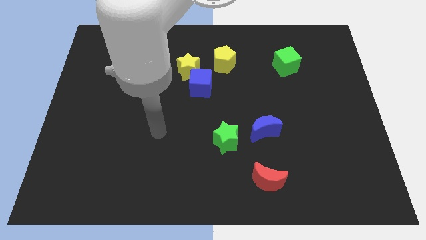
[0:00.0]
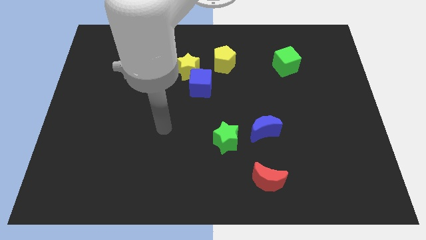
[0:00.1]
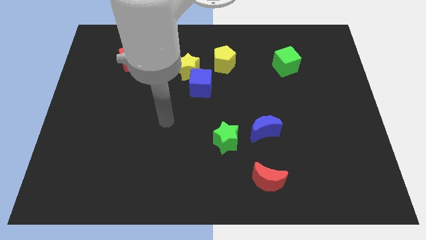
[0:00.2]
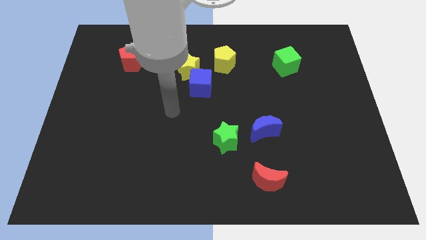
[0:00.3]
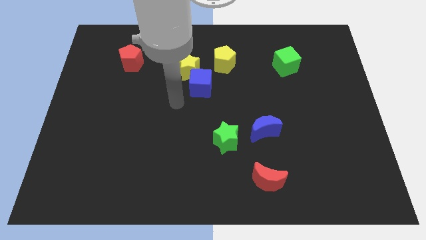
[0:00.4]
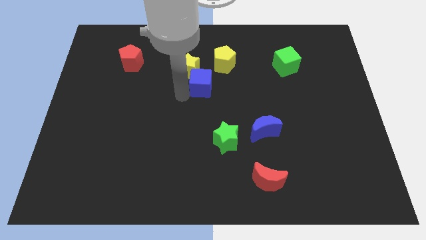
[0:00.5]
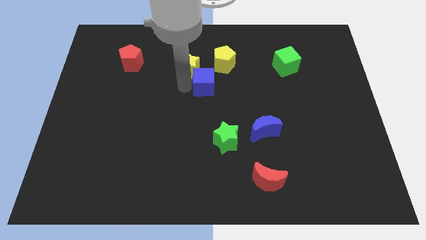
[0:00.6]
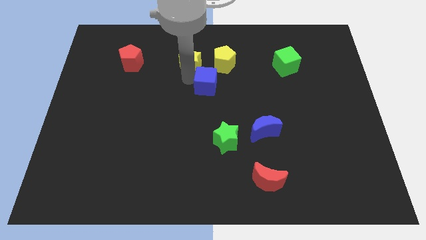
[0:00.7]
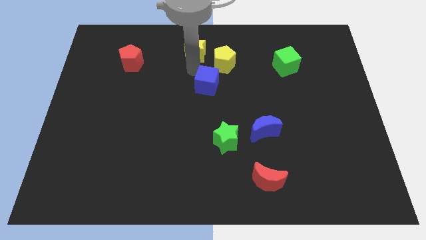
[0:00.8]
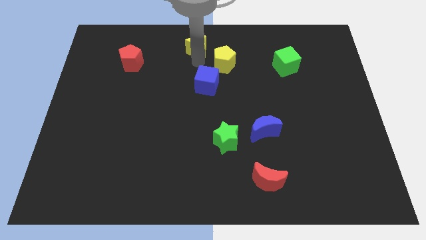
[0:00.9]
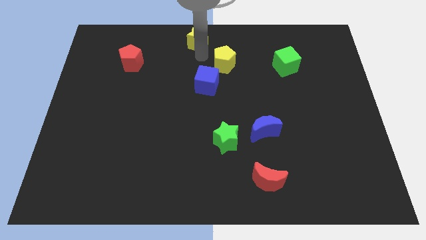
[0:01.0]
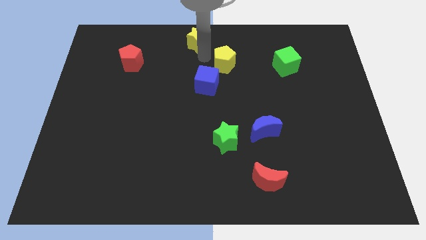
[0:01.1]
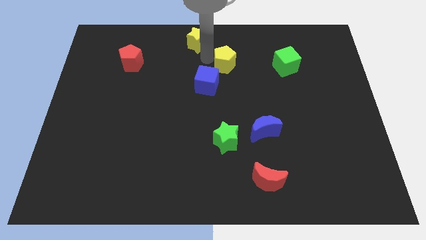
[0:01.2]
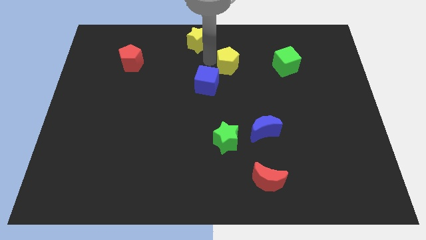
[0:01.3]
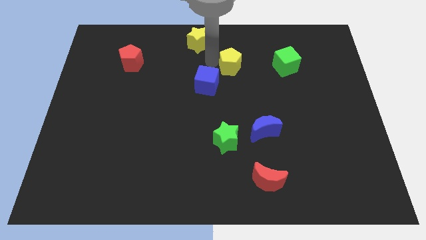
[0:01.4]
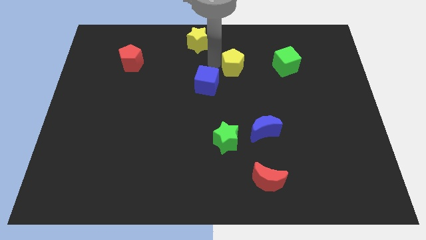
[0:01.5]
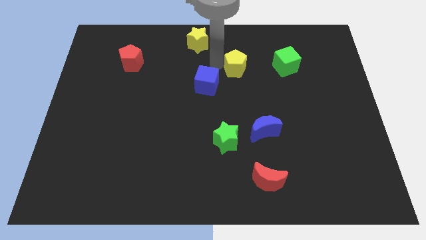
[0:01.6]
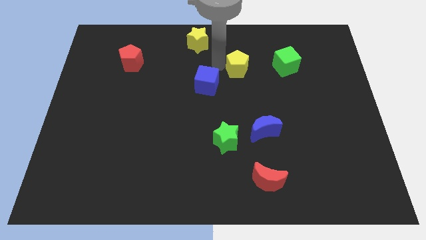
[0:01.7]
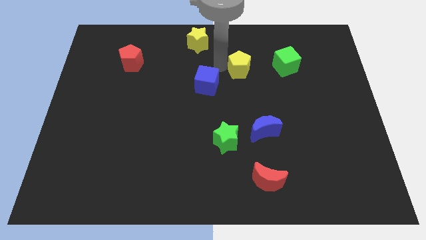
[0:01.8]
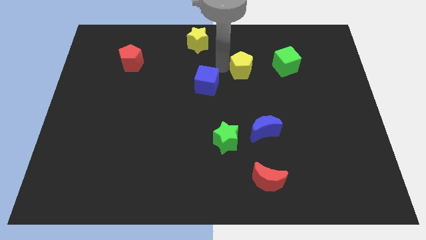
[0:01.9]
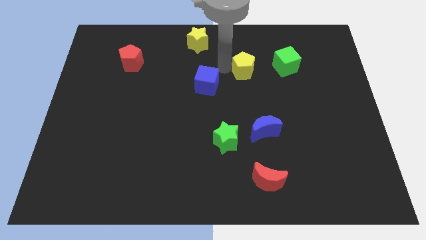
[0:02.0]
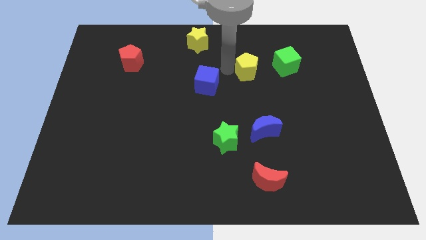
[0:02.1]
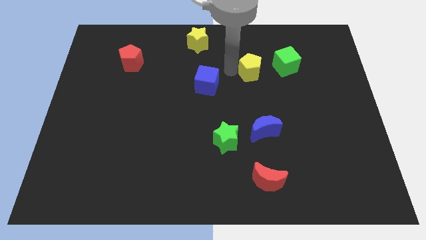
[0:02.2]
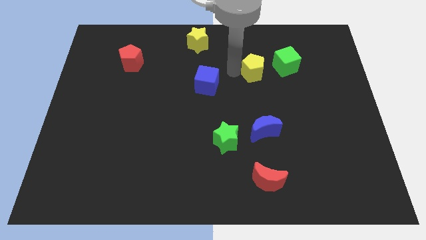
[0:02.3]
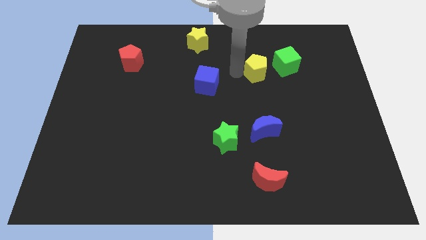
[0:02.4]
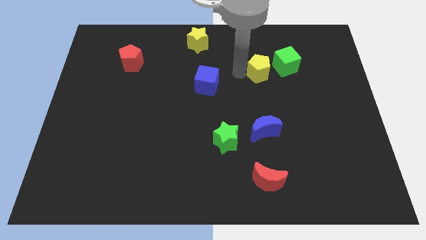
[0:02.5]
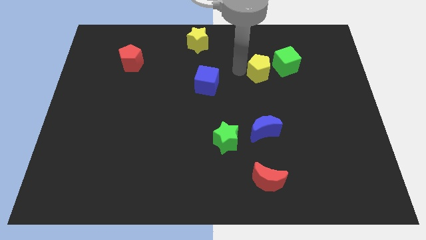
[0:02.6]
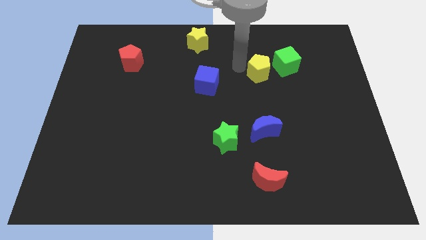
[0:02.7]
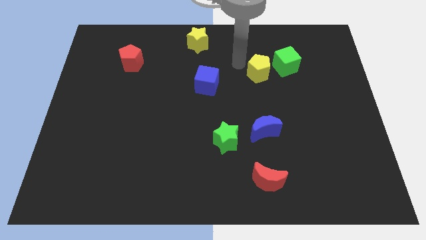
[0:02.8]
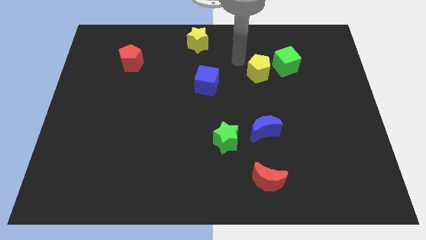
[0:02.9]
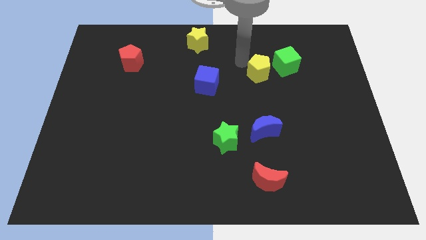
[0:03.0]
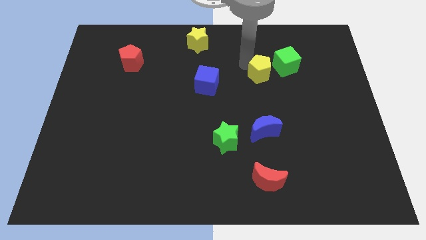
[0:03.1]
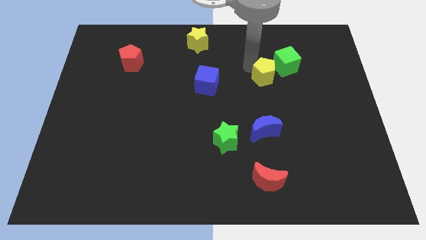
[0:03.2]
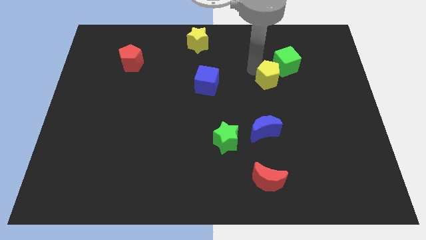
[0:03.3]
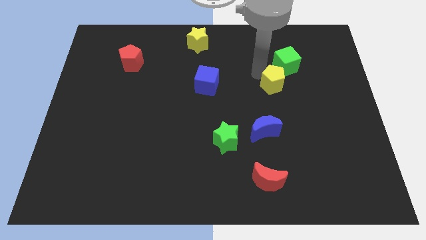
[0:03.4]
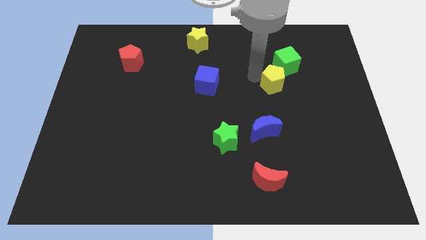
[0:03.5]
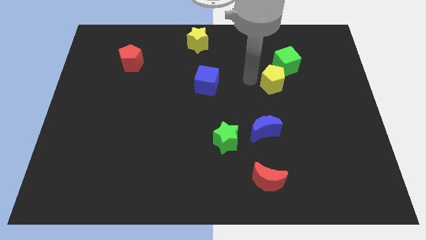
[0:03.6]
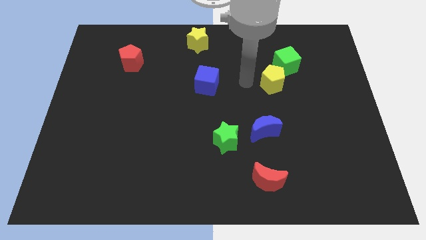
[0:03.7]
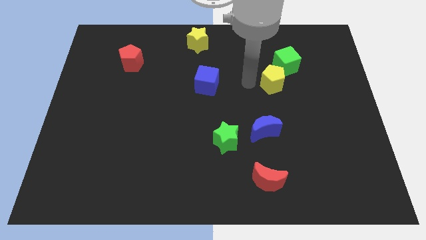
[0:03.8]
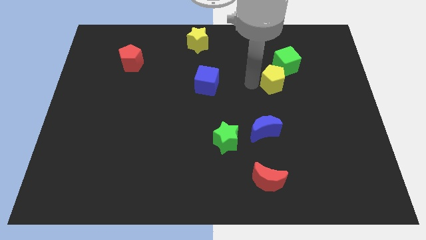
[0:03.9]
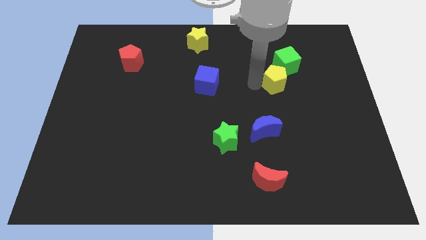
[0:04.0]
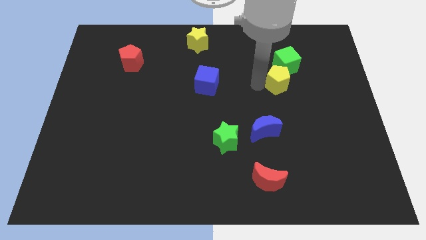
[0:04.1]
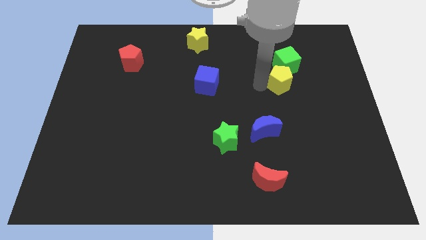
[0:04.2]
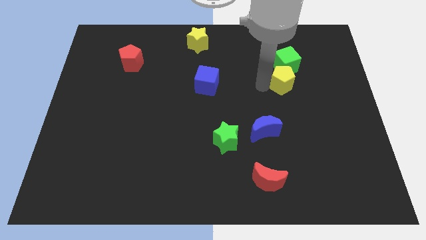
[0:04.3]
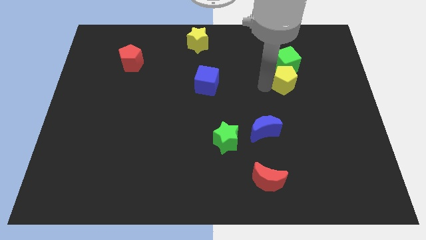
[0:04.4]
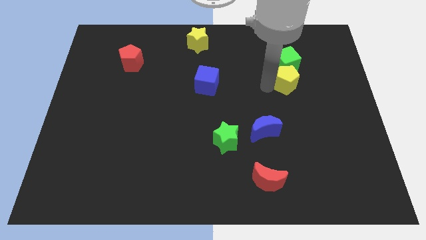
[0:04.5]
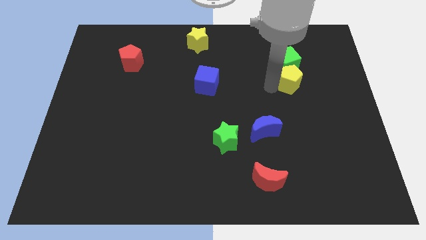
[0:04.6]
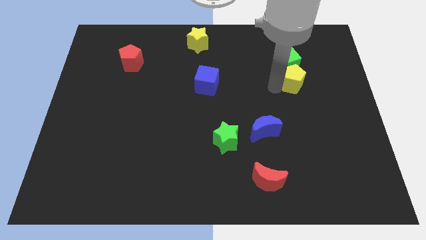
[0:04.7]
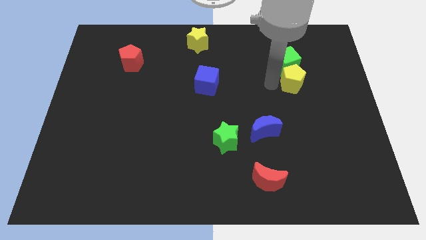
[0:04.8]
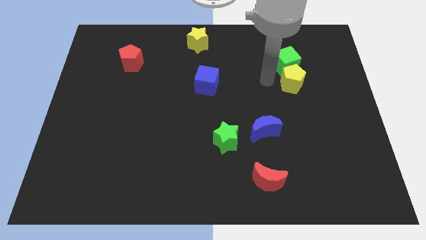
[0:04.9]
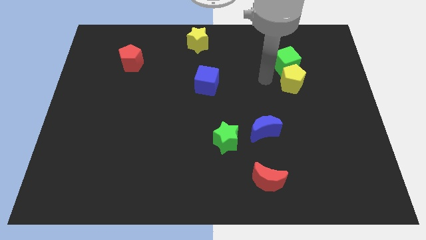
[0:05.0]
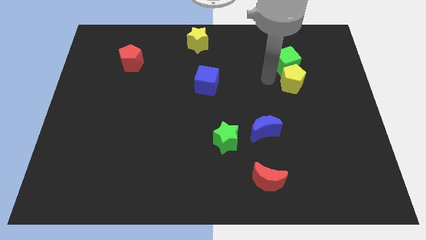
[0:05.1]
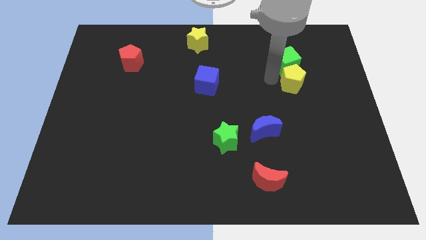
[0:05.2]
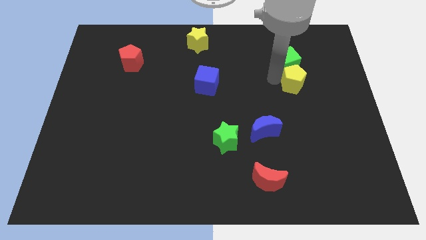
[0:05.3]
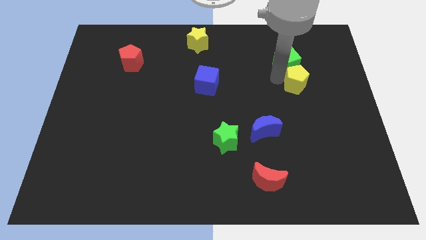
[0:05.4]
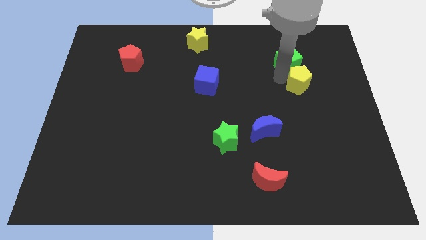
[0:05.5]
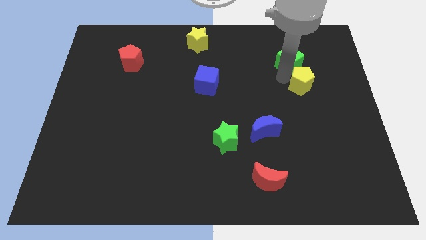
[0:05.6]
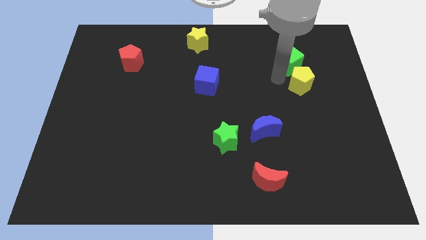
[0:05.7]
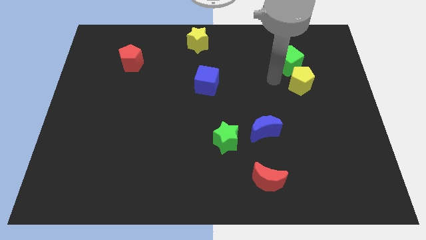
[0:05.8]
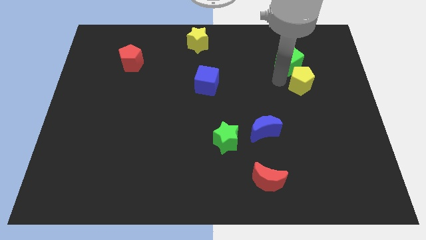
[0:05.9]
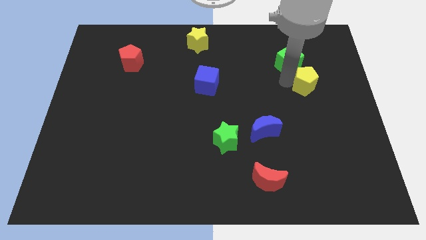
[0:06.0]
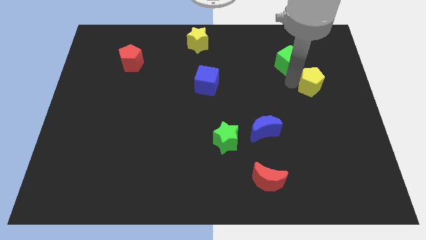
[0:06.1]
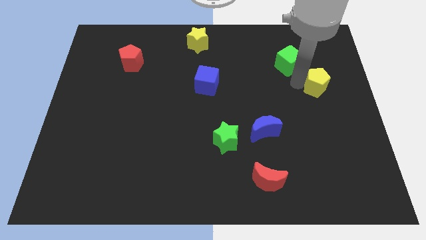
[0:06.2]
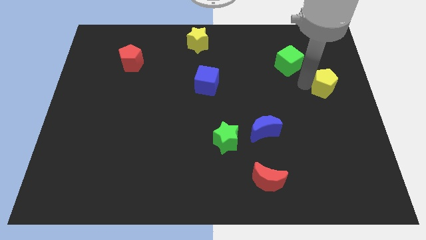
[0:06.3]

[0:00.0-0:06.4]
push the yellow pentagon to the right side of the board
